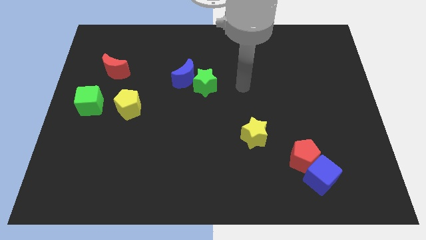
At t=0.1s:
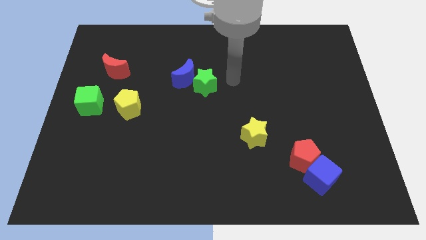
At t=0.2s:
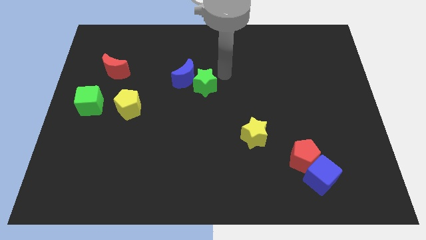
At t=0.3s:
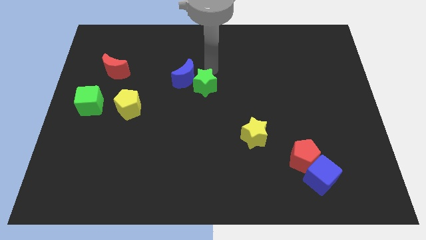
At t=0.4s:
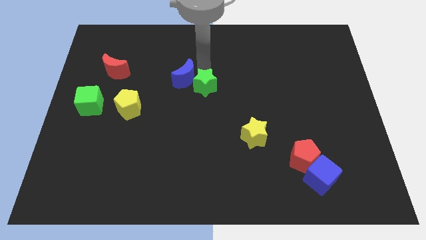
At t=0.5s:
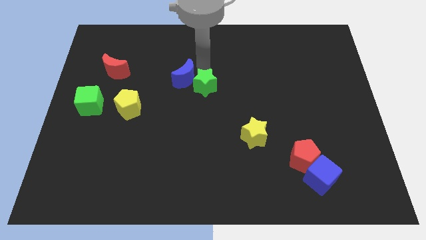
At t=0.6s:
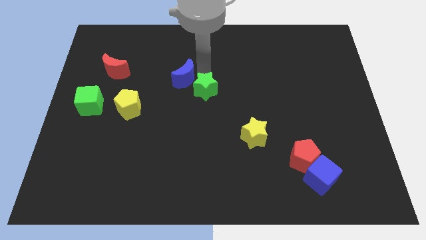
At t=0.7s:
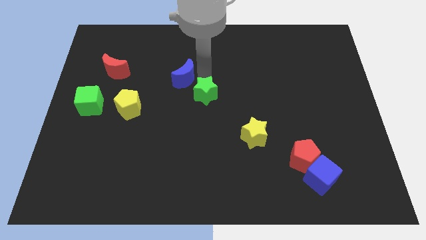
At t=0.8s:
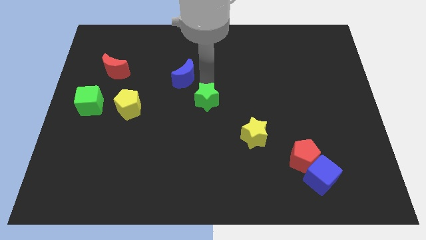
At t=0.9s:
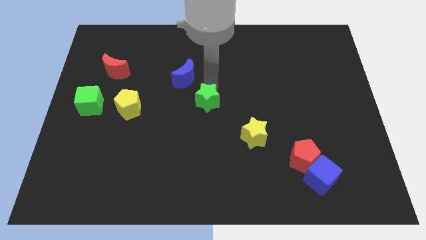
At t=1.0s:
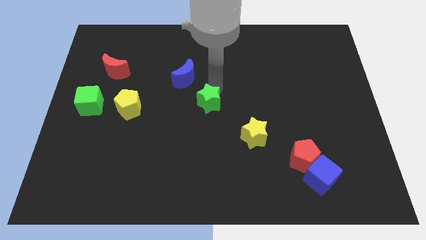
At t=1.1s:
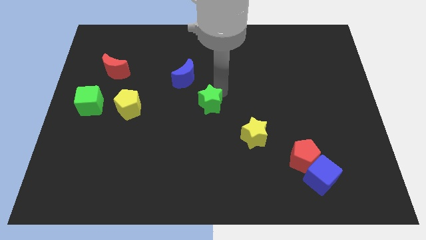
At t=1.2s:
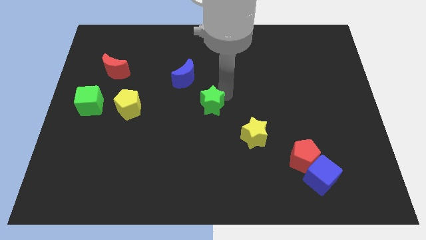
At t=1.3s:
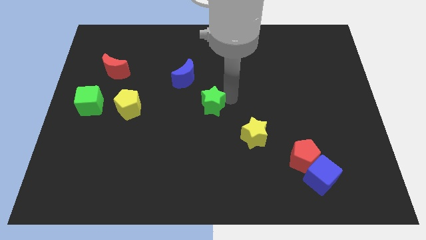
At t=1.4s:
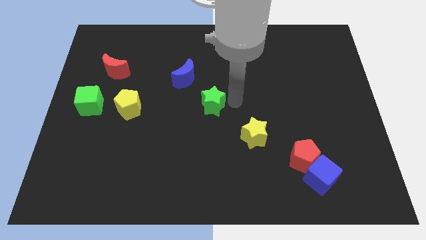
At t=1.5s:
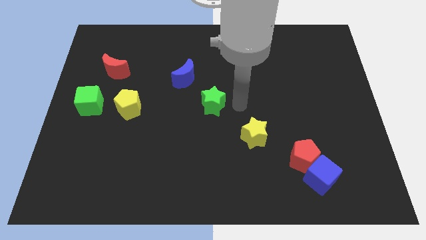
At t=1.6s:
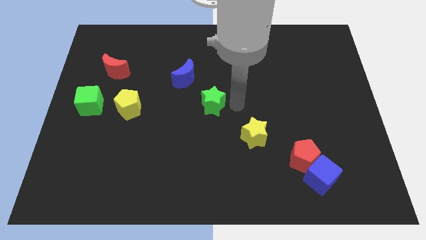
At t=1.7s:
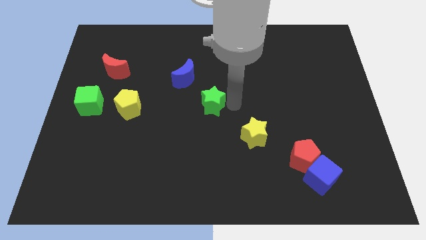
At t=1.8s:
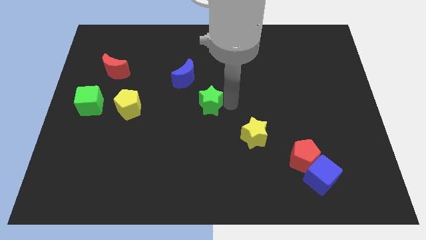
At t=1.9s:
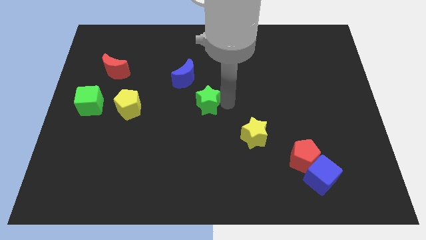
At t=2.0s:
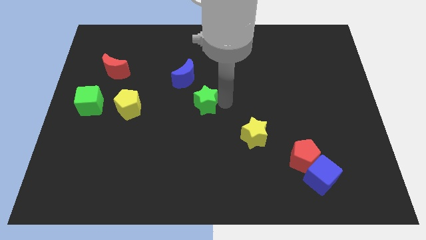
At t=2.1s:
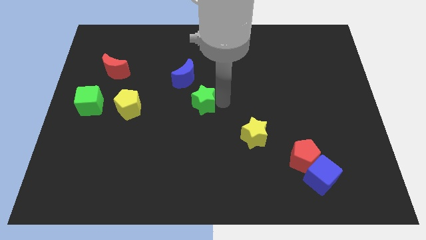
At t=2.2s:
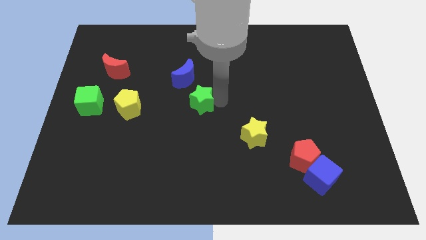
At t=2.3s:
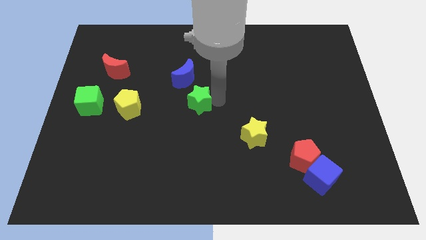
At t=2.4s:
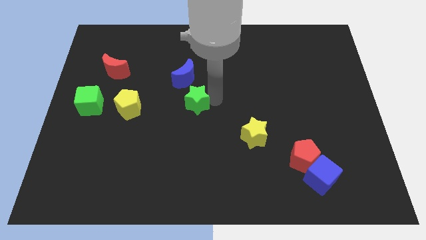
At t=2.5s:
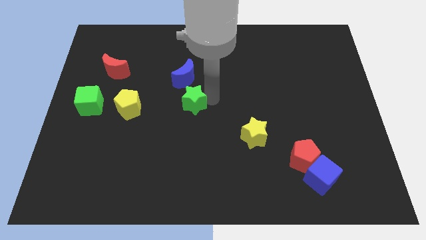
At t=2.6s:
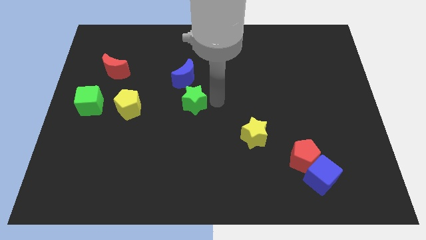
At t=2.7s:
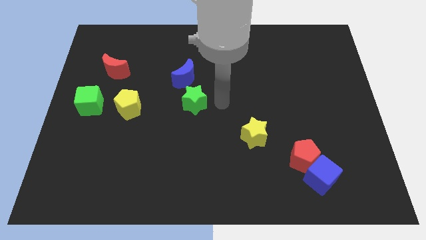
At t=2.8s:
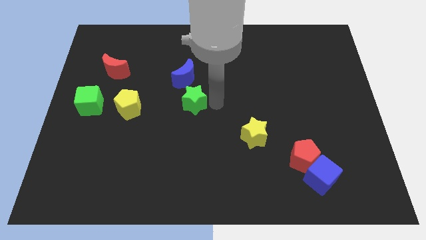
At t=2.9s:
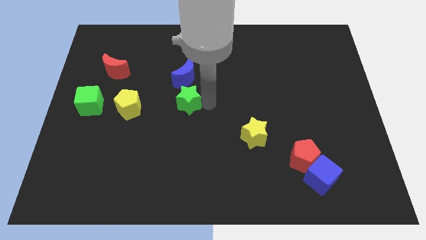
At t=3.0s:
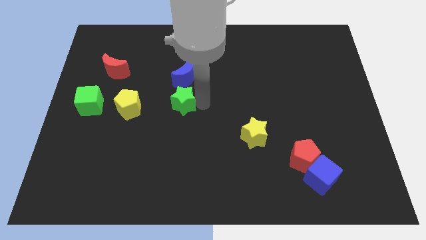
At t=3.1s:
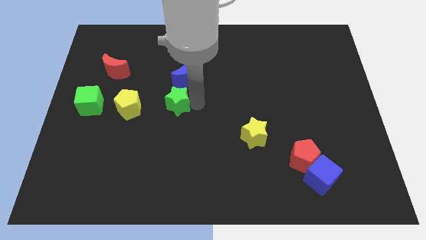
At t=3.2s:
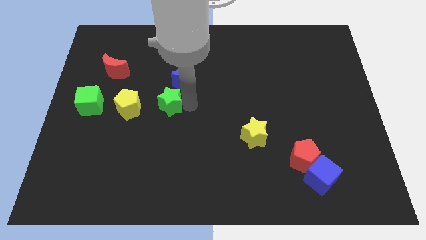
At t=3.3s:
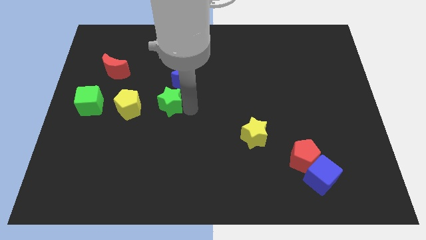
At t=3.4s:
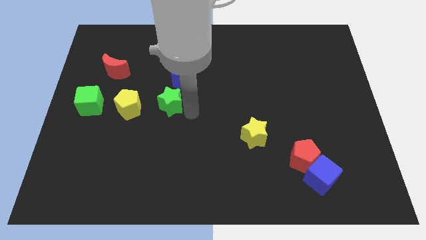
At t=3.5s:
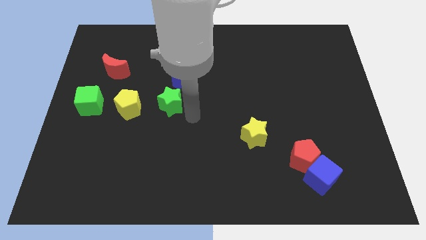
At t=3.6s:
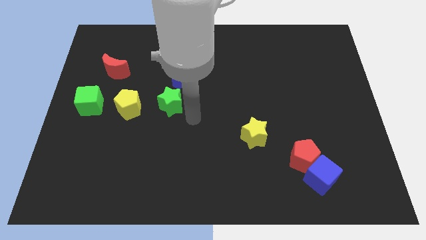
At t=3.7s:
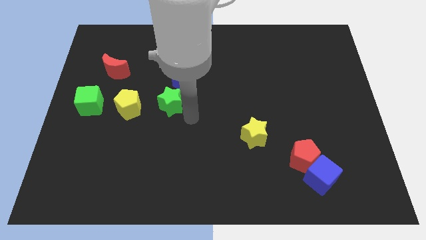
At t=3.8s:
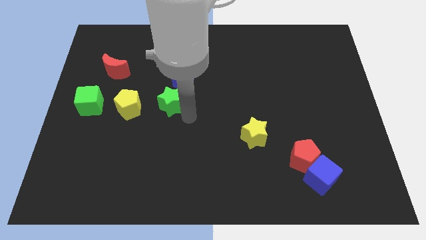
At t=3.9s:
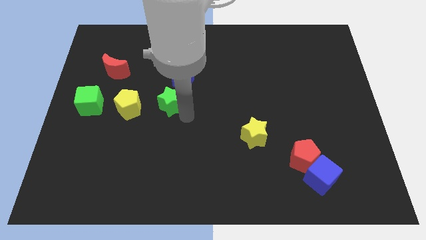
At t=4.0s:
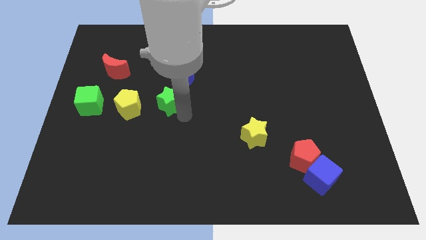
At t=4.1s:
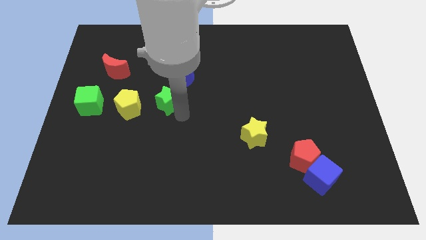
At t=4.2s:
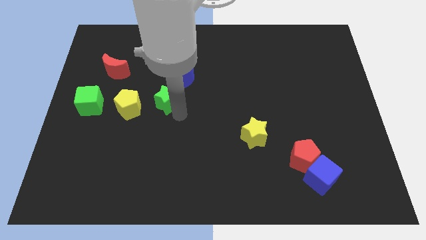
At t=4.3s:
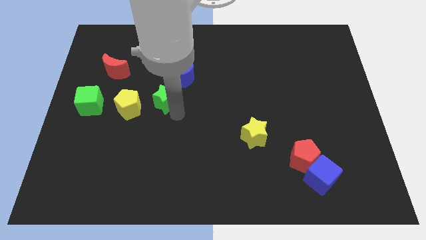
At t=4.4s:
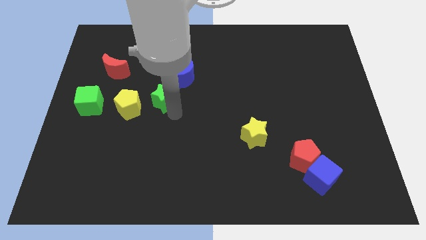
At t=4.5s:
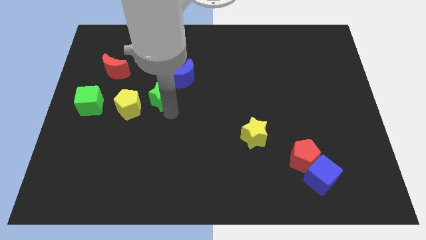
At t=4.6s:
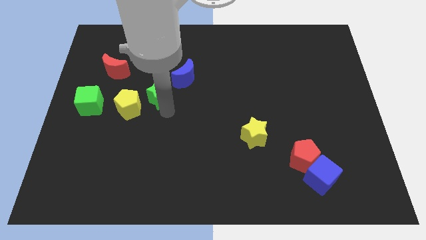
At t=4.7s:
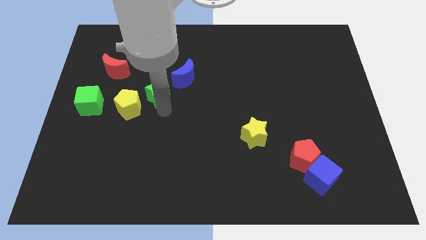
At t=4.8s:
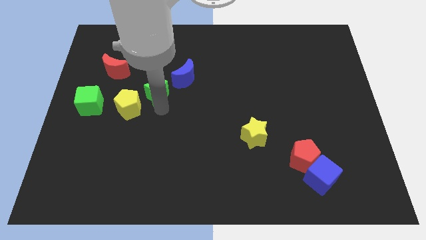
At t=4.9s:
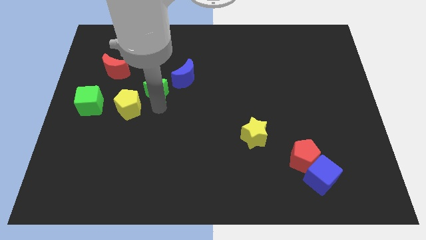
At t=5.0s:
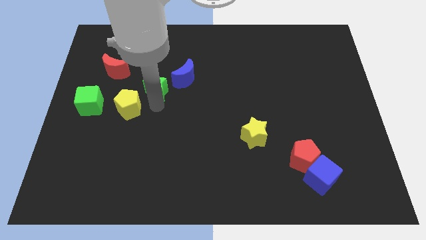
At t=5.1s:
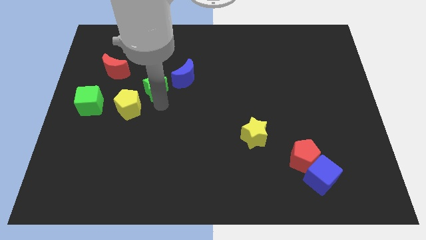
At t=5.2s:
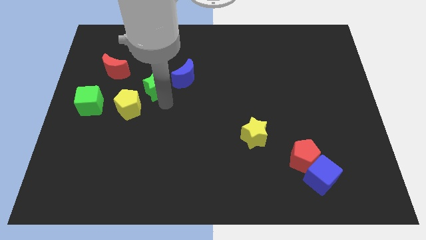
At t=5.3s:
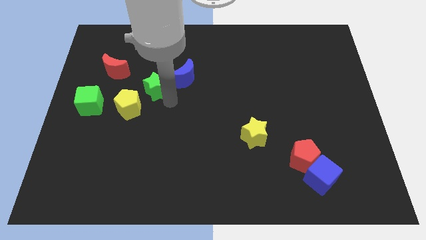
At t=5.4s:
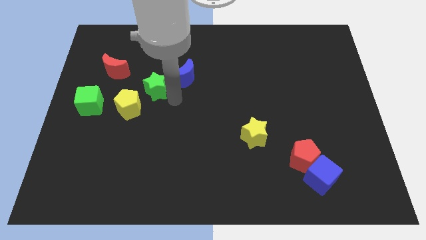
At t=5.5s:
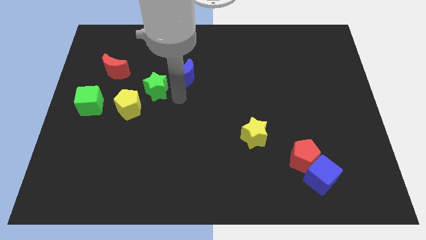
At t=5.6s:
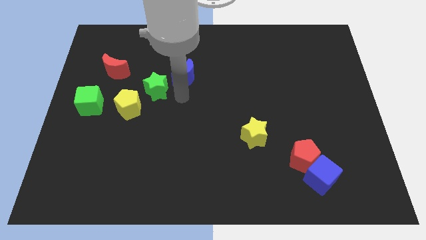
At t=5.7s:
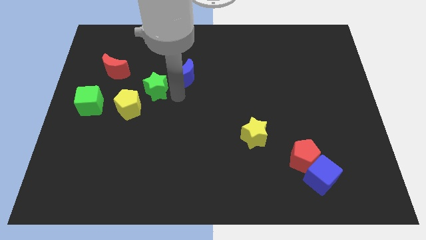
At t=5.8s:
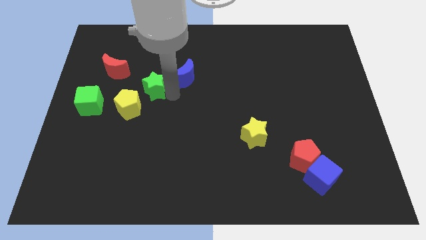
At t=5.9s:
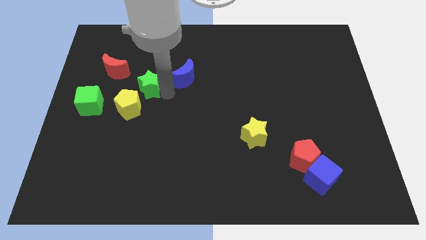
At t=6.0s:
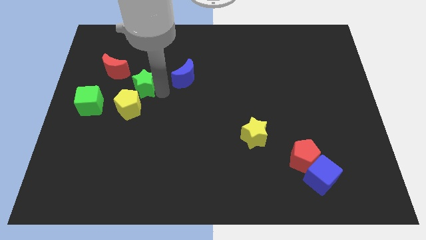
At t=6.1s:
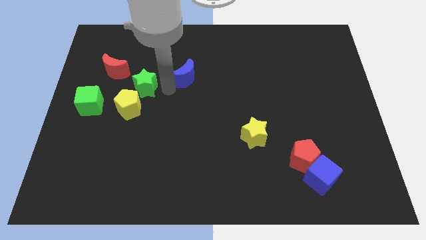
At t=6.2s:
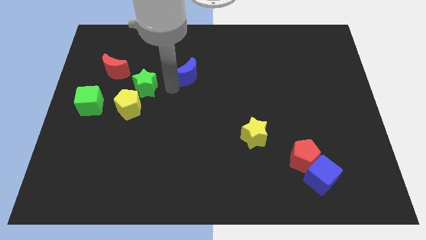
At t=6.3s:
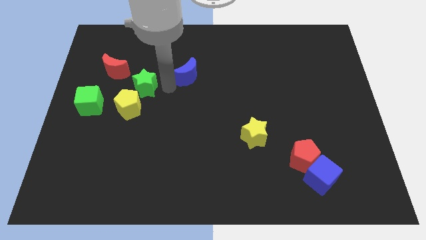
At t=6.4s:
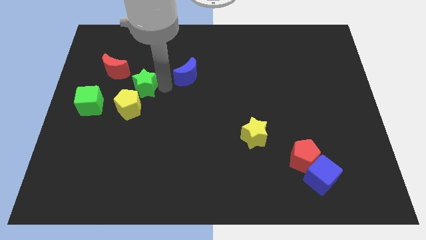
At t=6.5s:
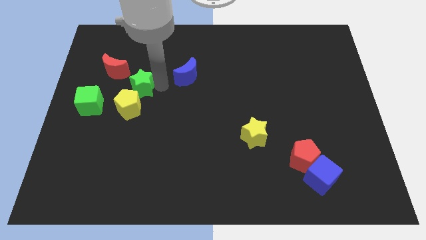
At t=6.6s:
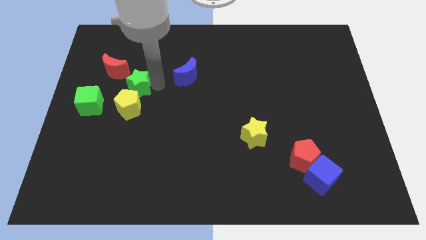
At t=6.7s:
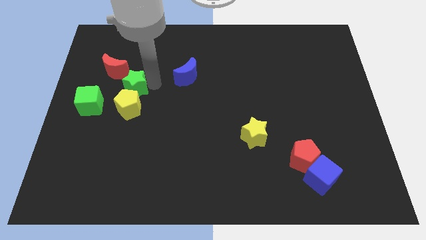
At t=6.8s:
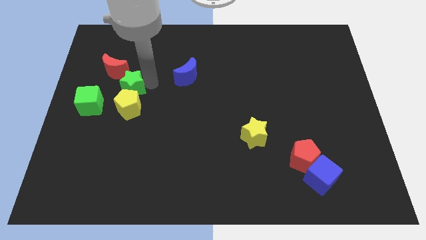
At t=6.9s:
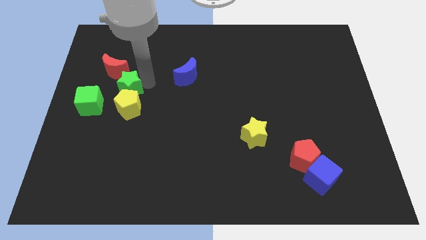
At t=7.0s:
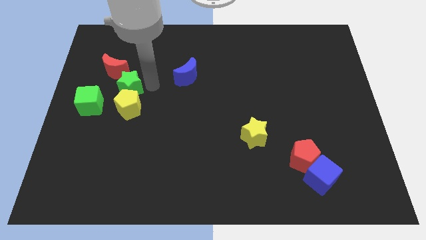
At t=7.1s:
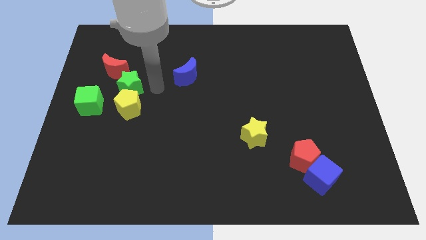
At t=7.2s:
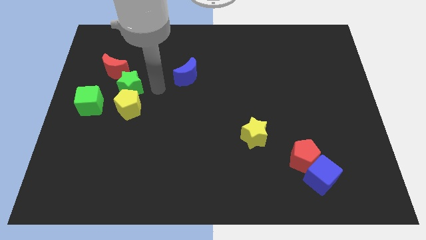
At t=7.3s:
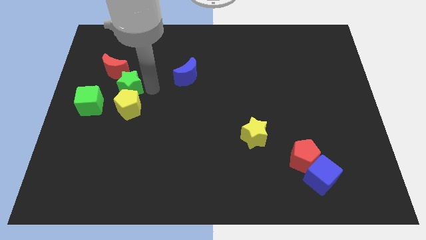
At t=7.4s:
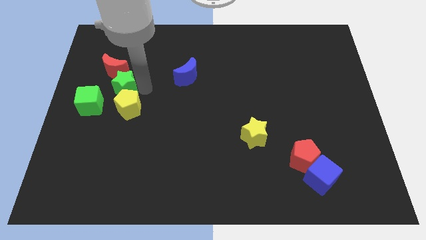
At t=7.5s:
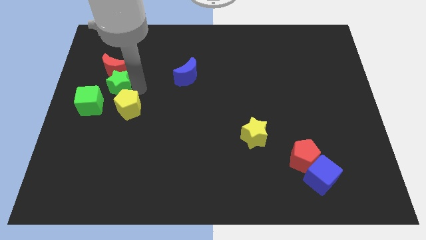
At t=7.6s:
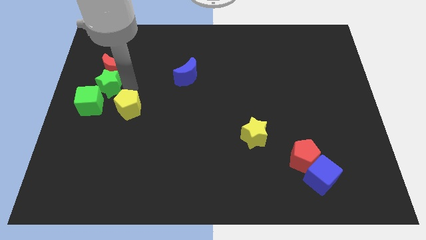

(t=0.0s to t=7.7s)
push the green star to the left side of the board
